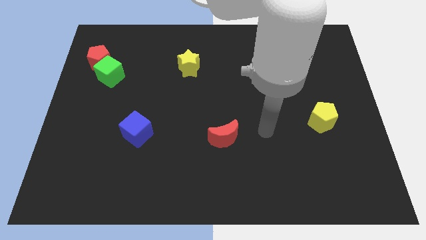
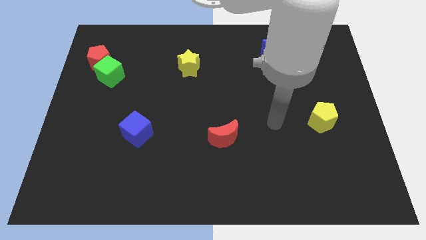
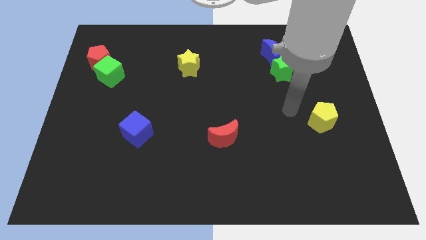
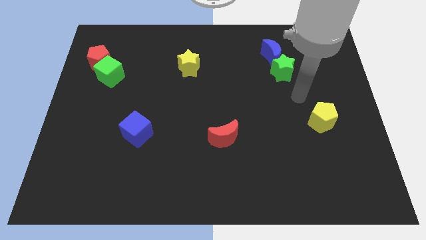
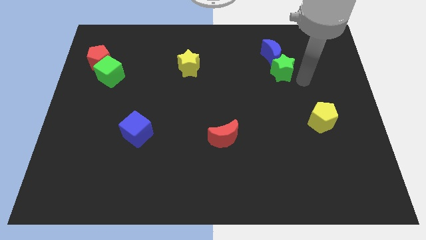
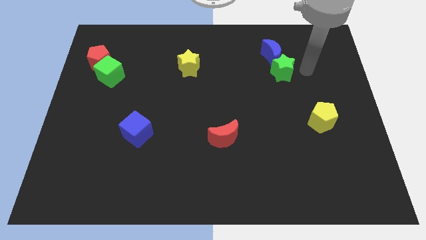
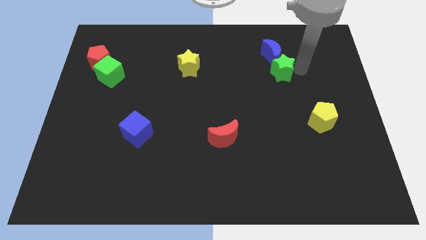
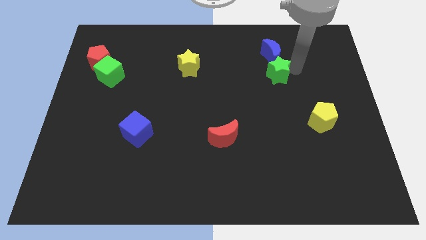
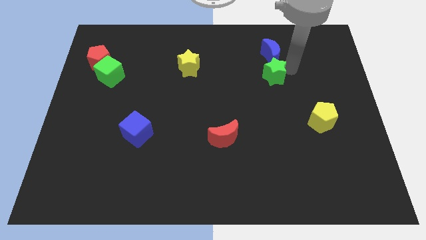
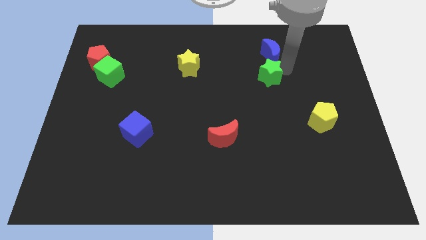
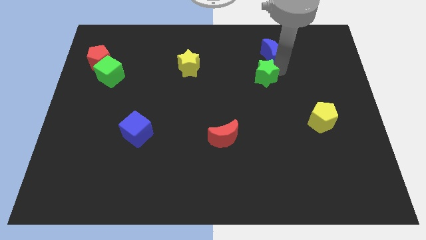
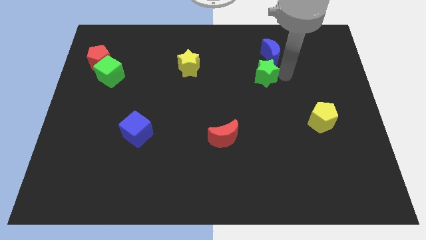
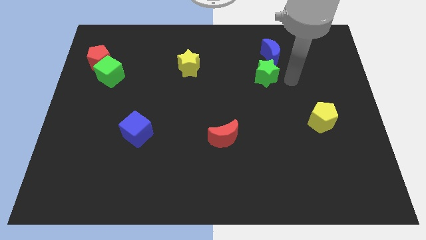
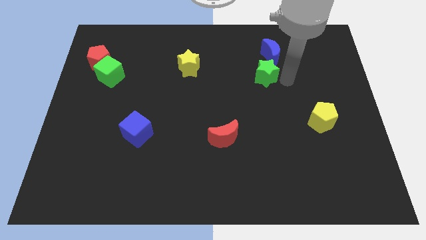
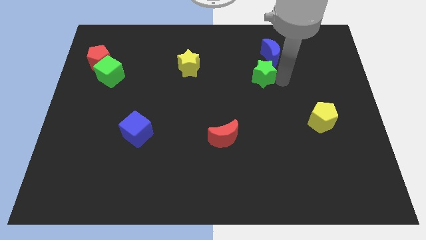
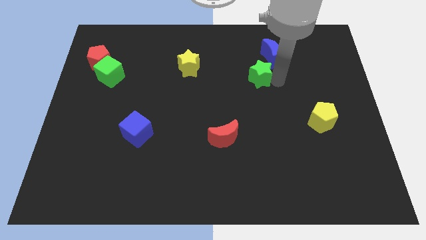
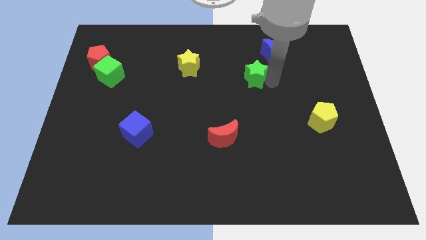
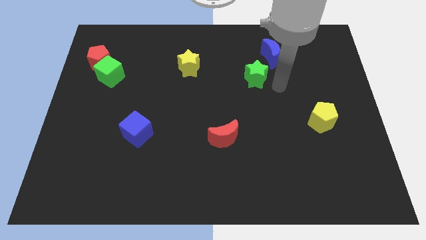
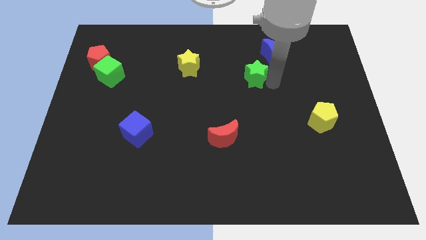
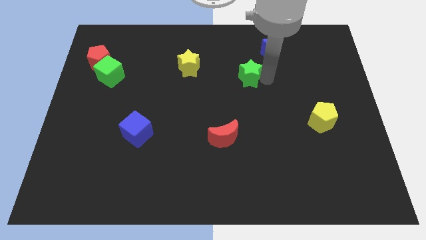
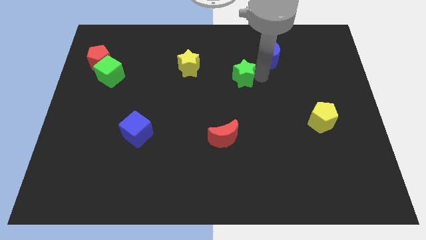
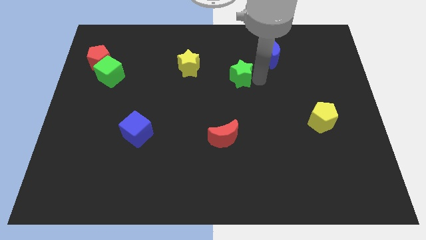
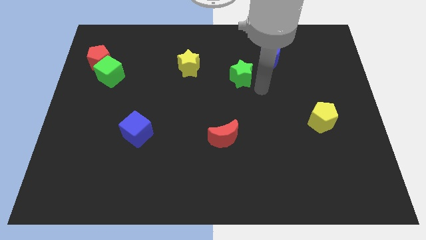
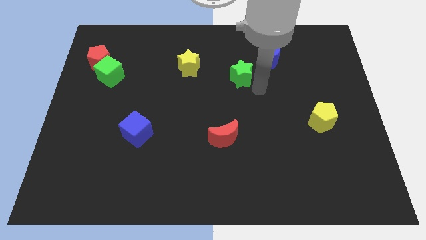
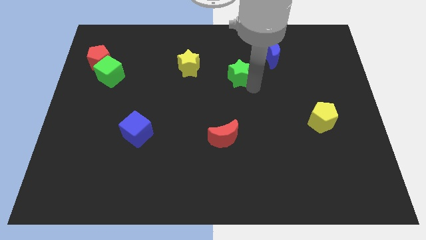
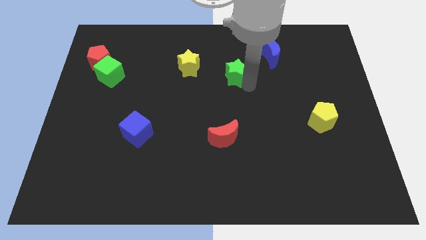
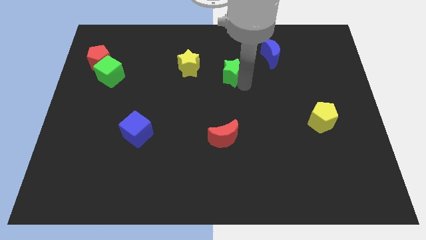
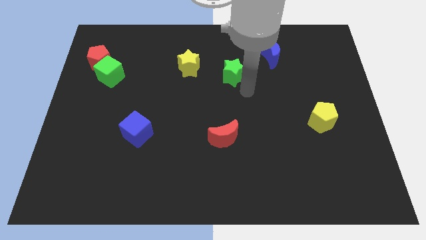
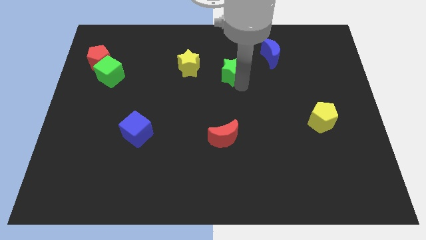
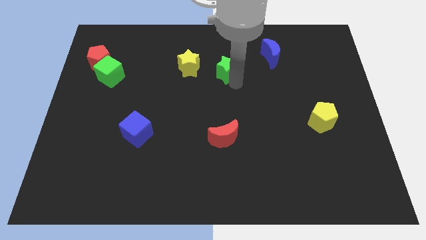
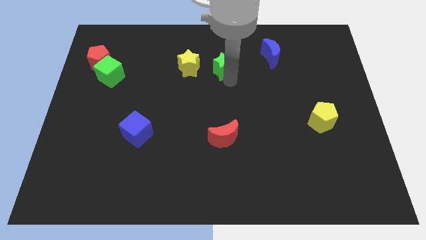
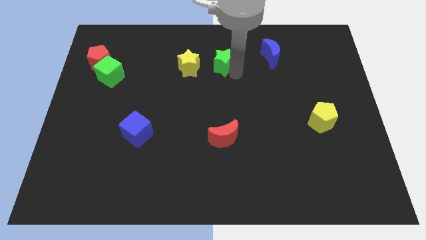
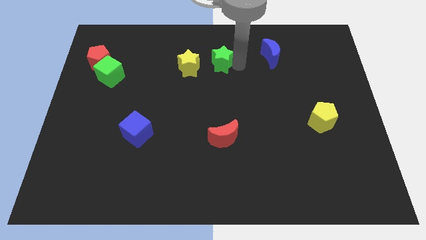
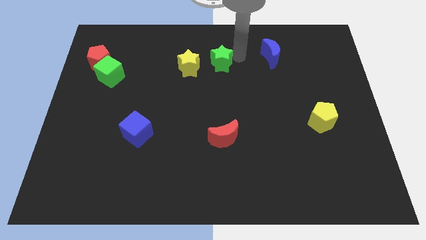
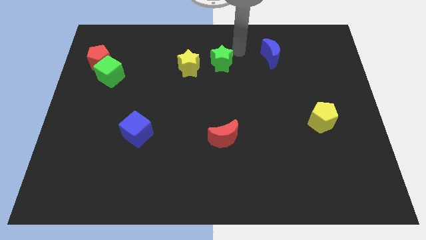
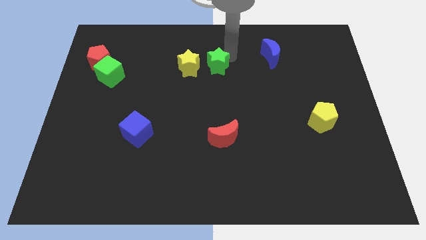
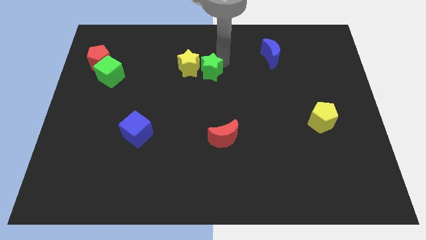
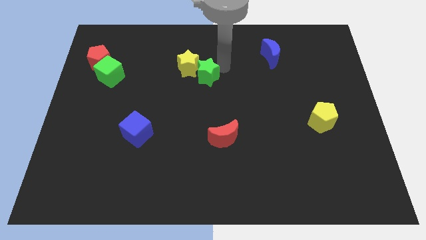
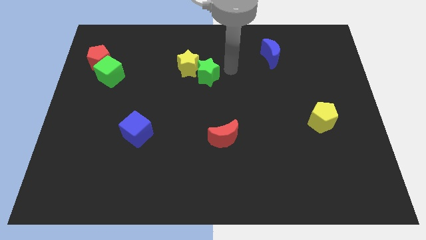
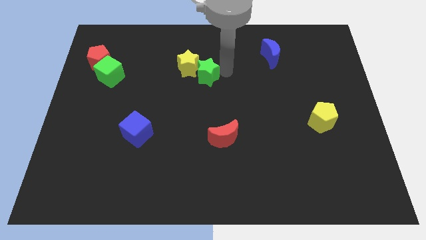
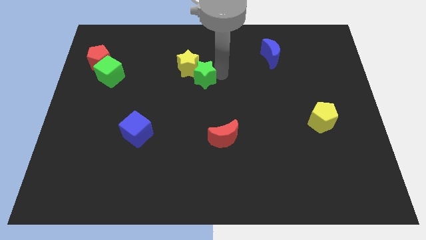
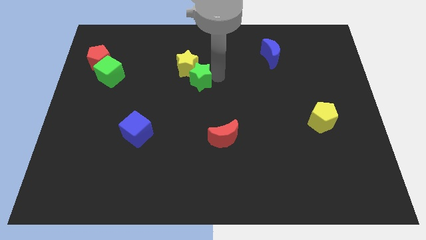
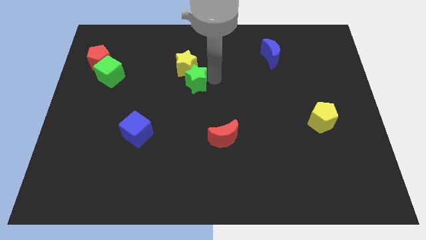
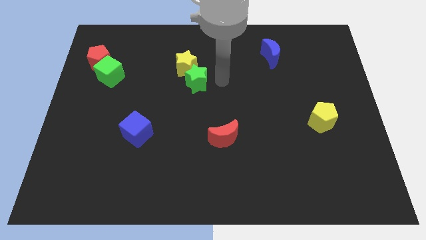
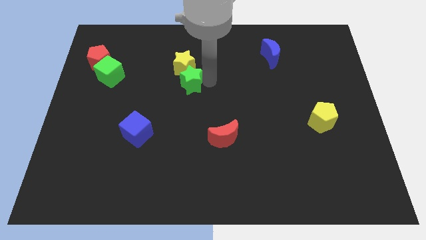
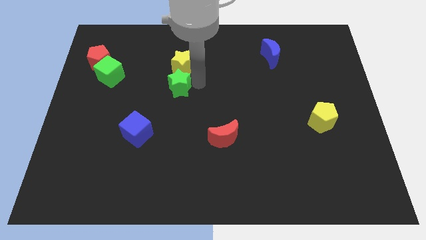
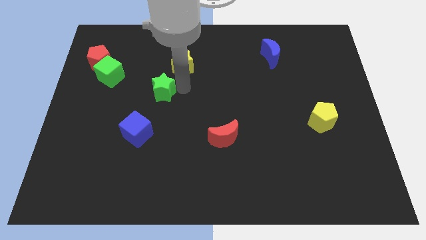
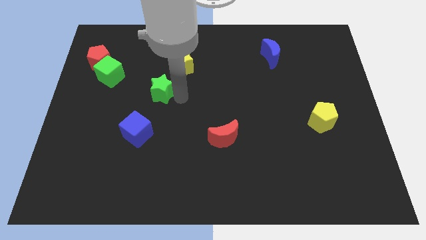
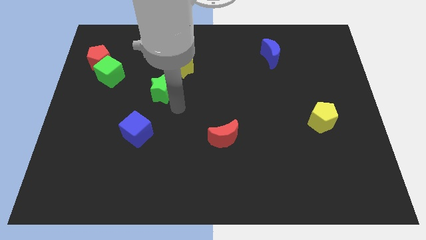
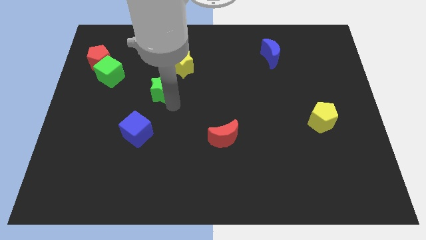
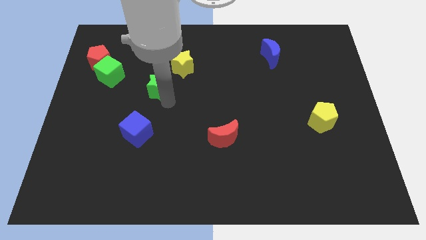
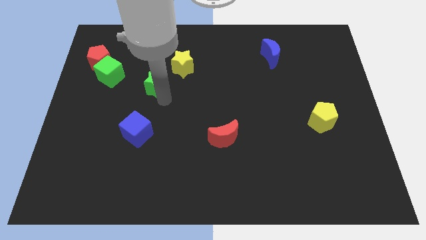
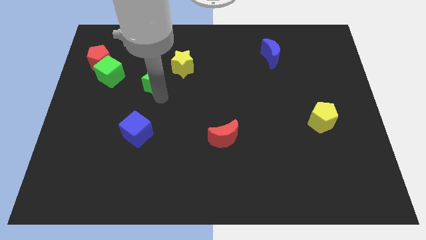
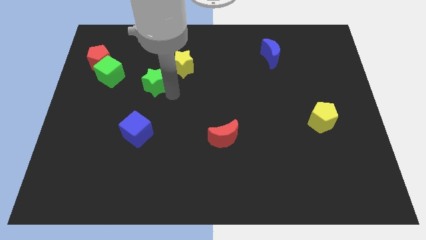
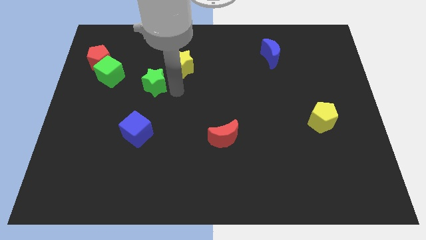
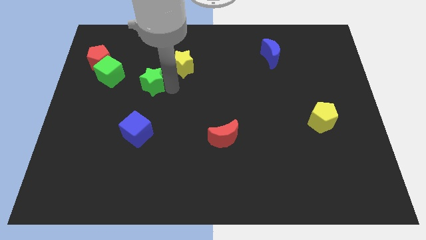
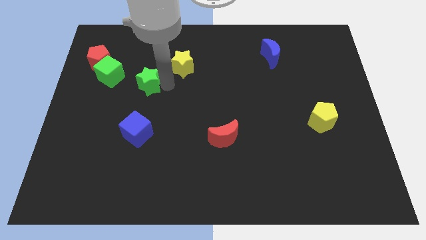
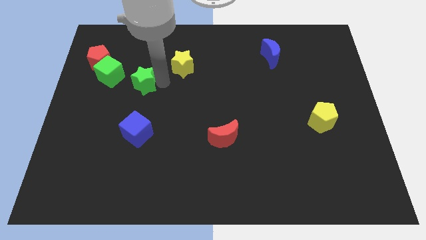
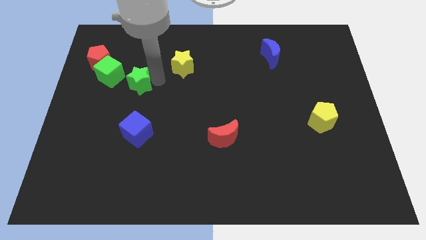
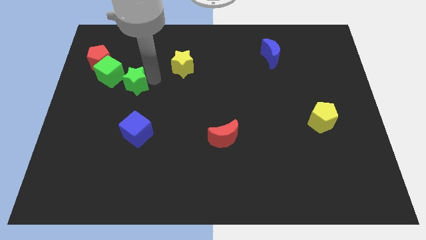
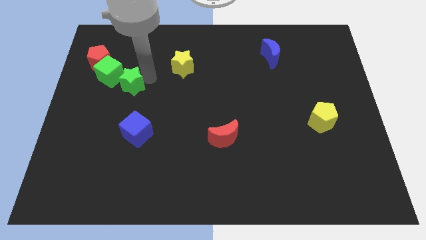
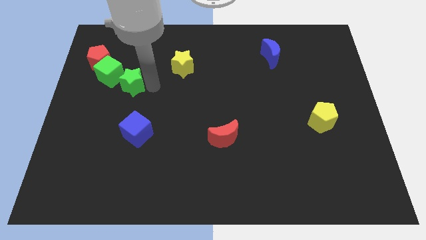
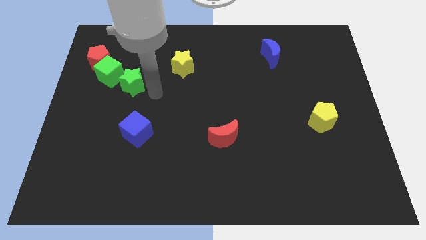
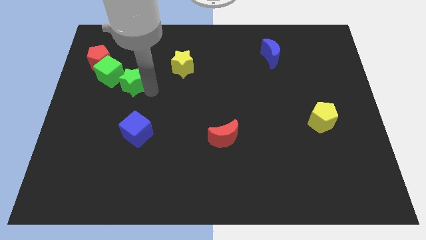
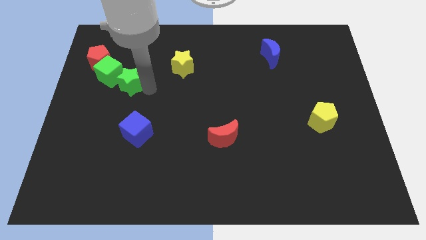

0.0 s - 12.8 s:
push the green star next to the green cube

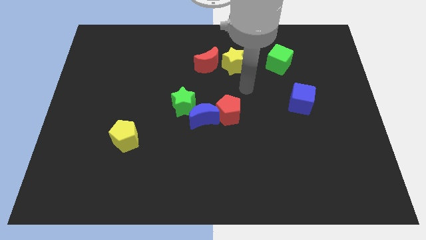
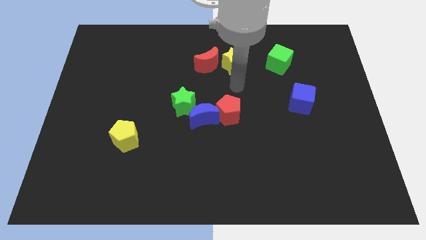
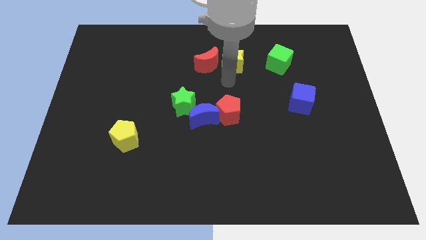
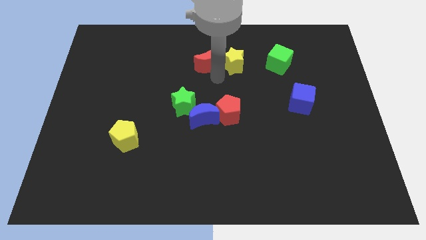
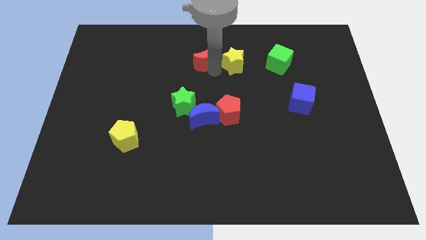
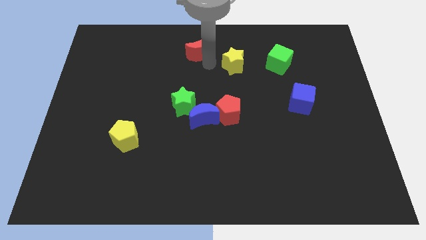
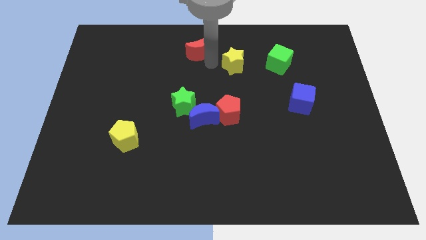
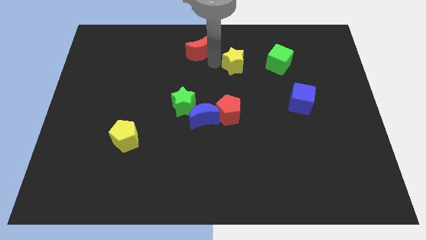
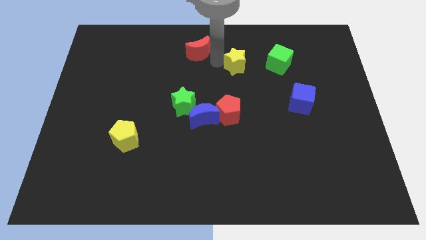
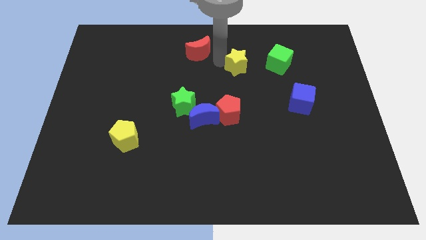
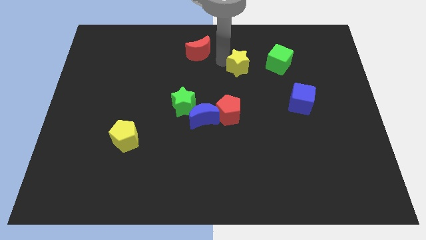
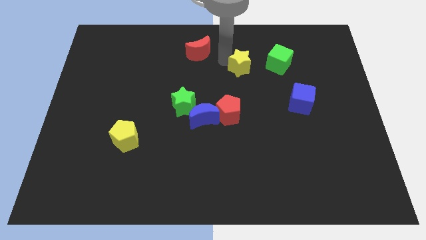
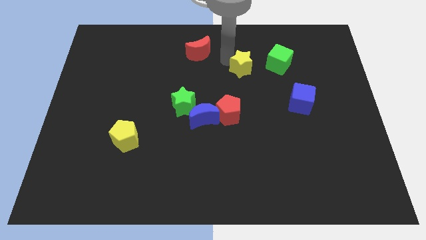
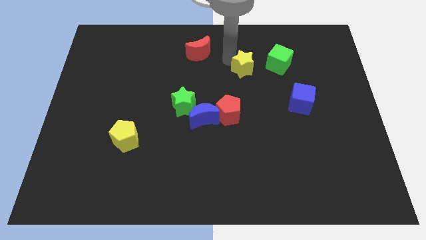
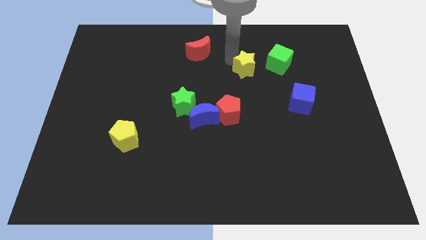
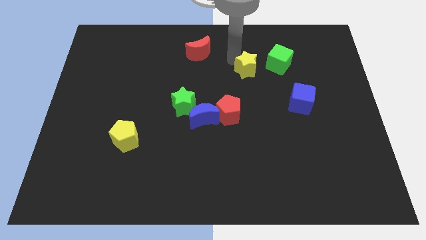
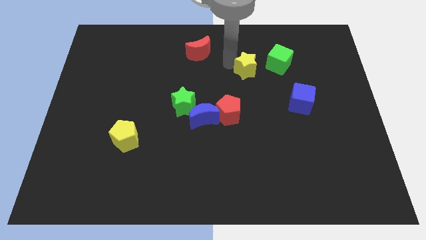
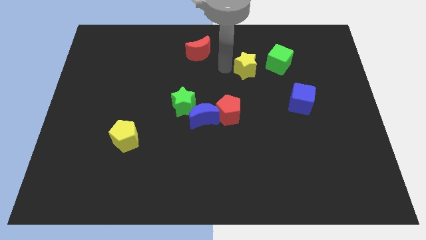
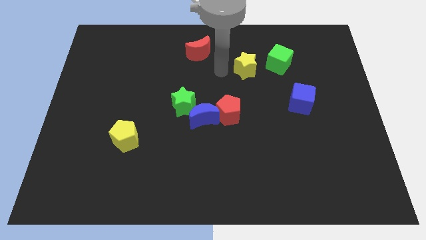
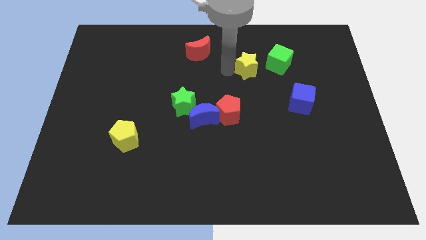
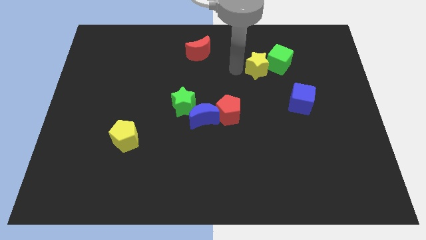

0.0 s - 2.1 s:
put the yellow star close to the green cube
